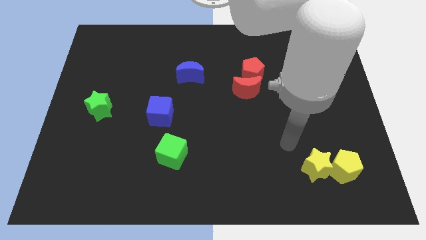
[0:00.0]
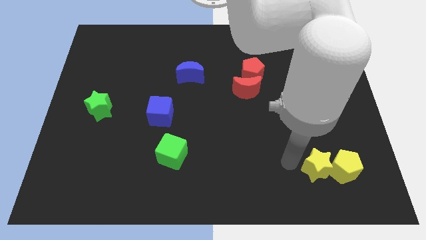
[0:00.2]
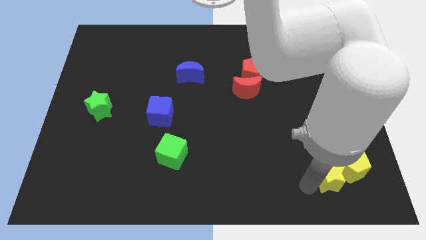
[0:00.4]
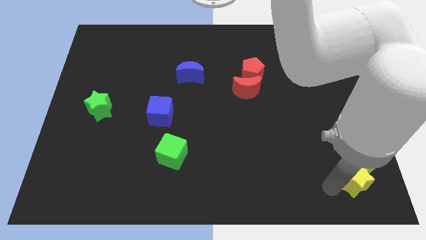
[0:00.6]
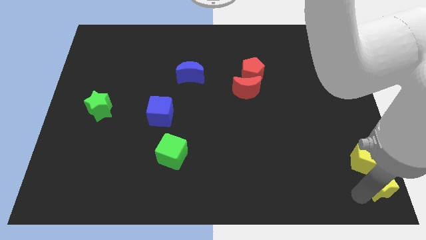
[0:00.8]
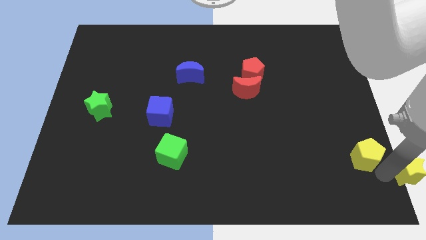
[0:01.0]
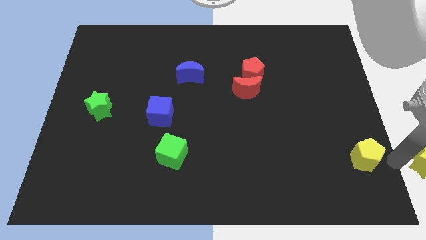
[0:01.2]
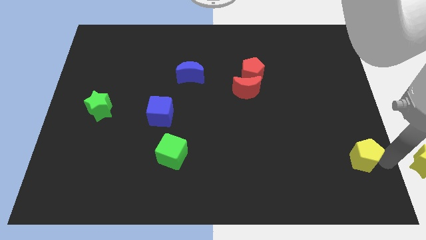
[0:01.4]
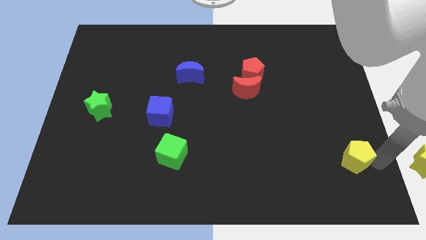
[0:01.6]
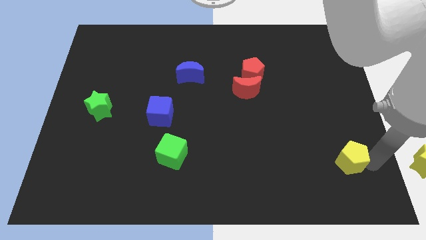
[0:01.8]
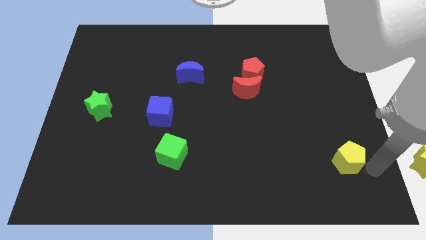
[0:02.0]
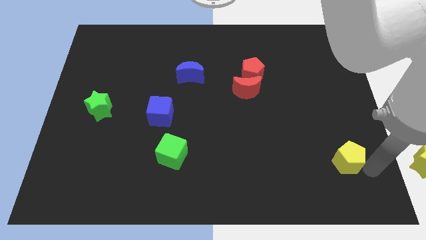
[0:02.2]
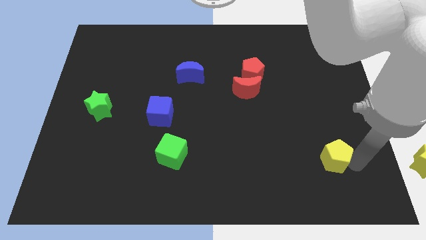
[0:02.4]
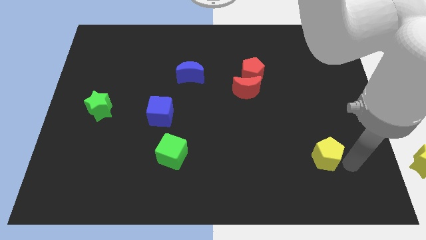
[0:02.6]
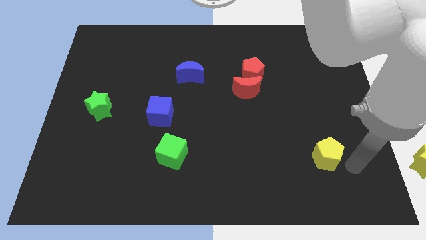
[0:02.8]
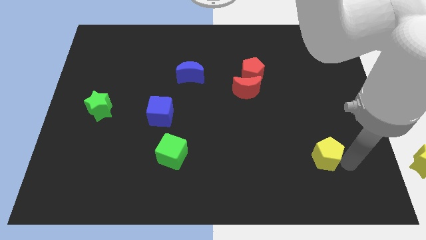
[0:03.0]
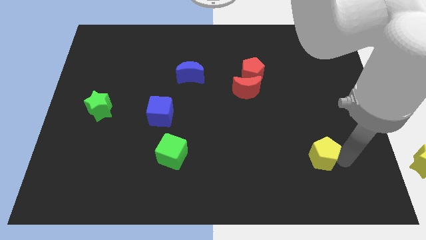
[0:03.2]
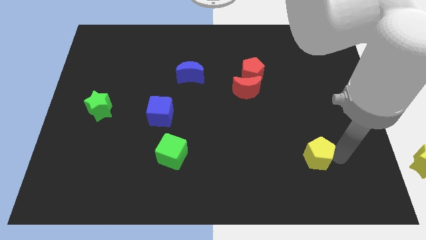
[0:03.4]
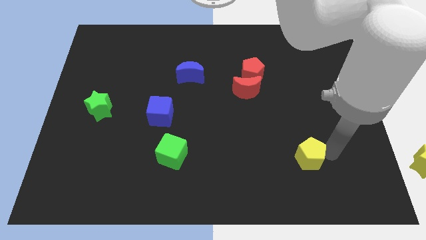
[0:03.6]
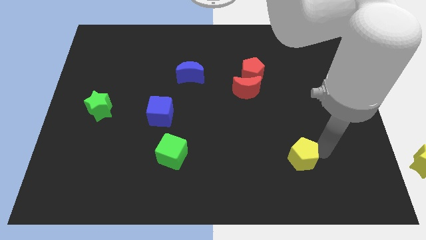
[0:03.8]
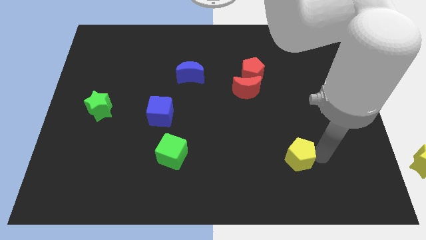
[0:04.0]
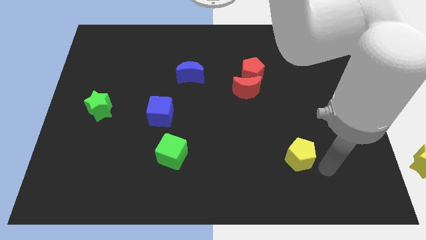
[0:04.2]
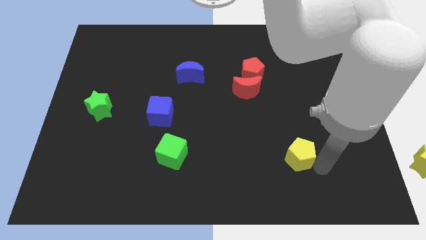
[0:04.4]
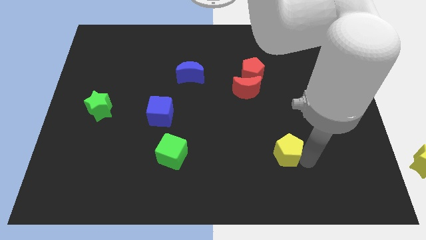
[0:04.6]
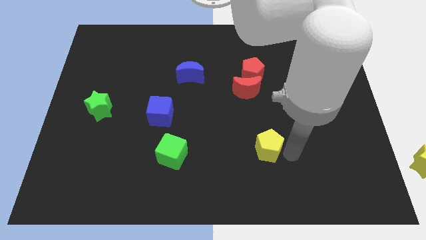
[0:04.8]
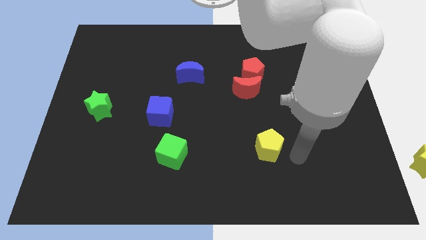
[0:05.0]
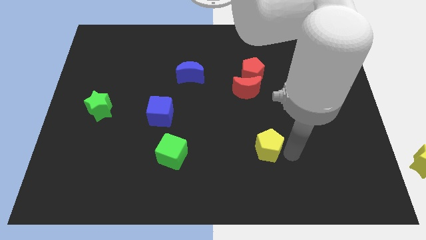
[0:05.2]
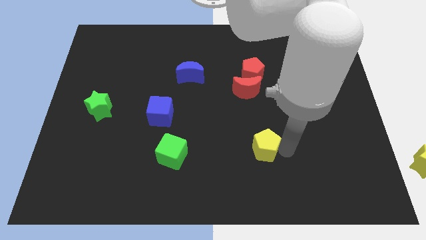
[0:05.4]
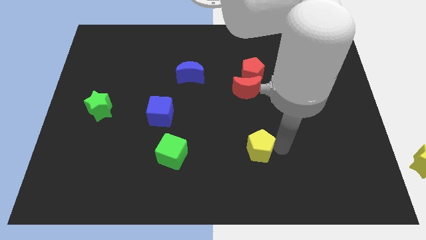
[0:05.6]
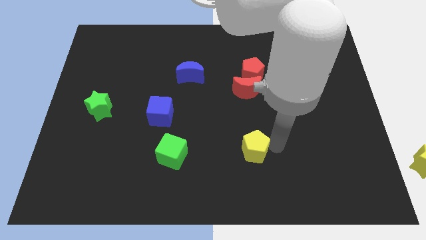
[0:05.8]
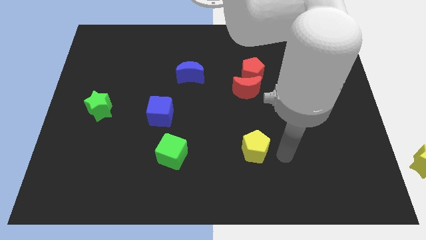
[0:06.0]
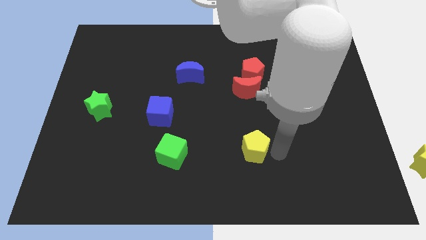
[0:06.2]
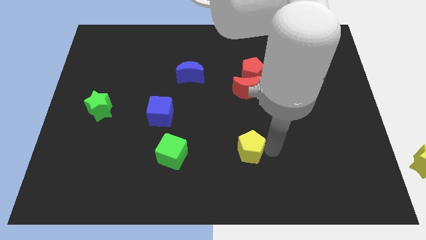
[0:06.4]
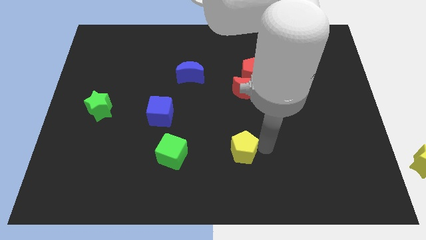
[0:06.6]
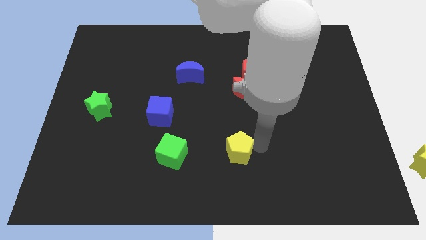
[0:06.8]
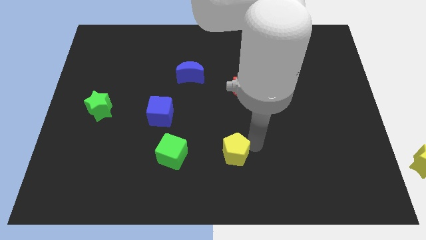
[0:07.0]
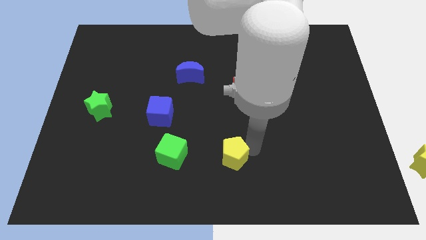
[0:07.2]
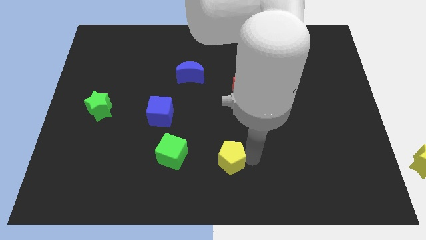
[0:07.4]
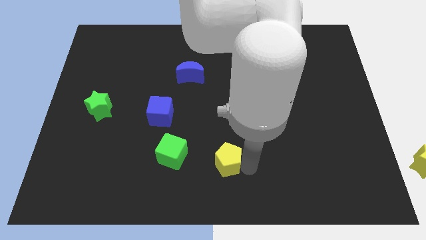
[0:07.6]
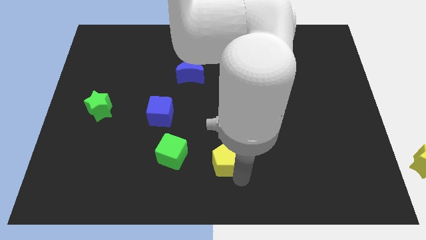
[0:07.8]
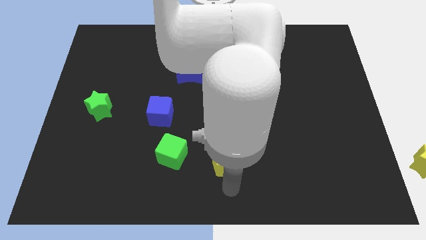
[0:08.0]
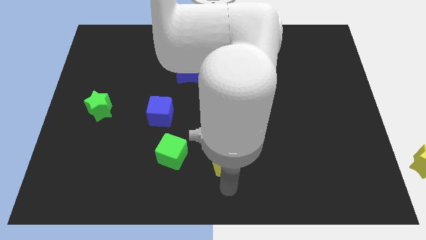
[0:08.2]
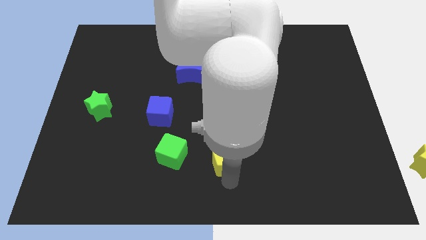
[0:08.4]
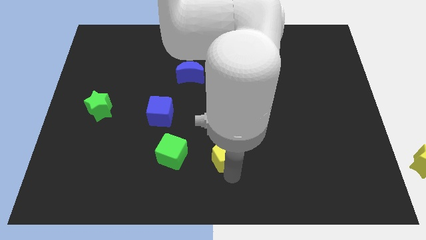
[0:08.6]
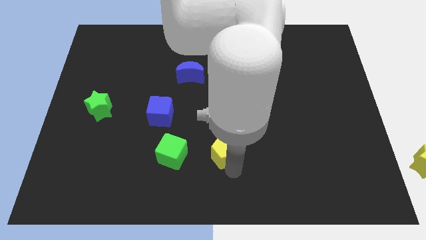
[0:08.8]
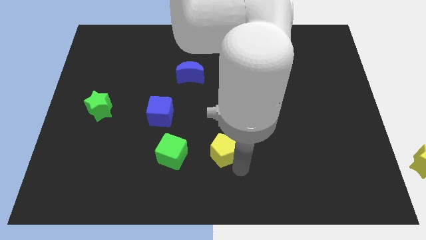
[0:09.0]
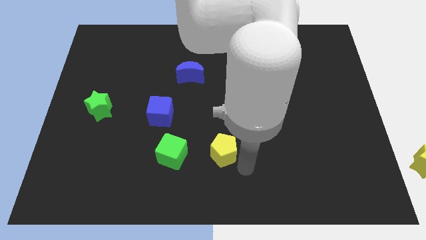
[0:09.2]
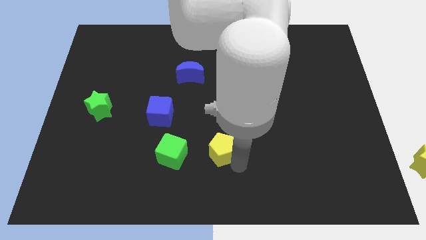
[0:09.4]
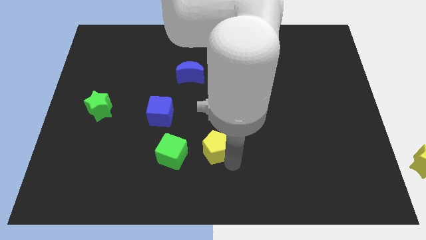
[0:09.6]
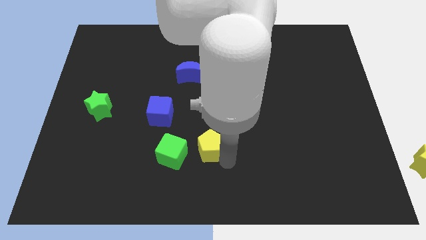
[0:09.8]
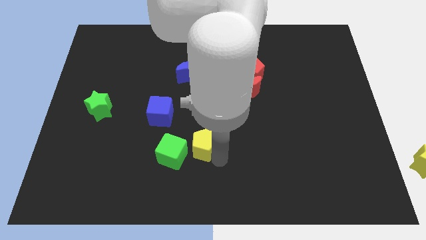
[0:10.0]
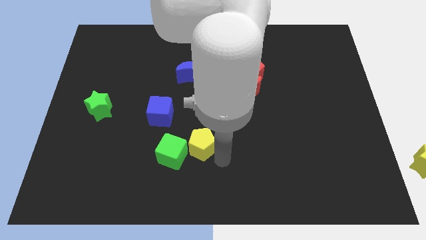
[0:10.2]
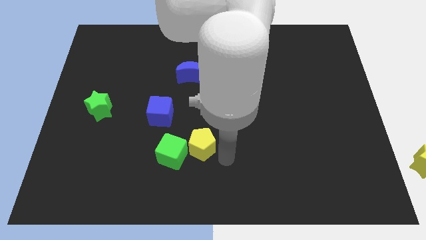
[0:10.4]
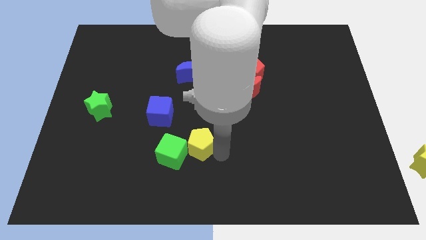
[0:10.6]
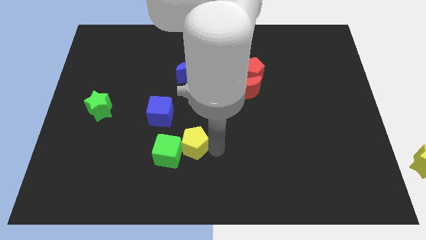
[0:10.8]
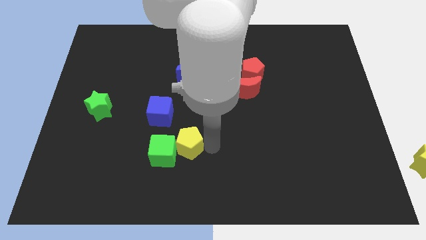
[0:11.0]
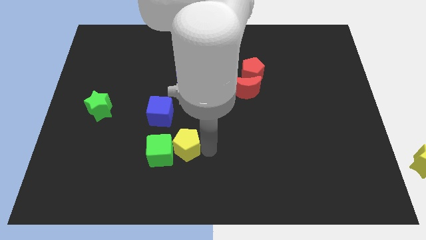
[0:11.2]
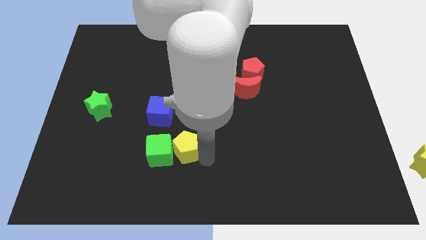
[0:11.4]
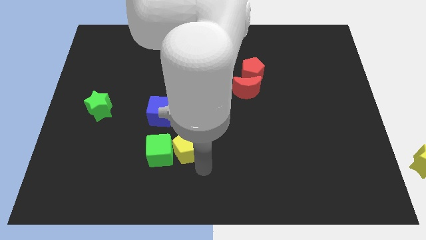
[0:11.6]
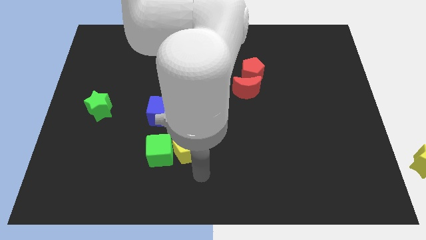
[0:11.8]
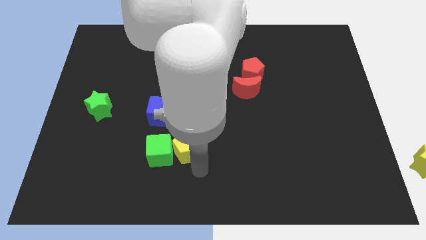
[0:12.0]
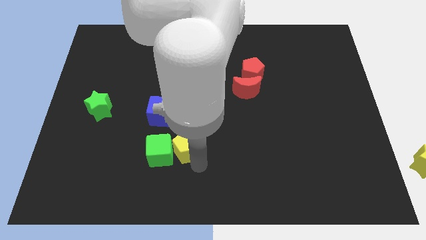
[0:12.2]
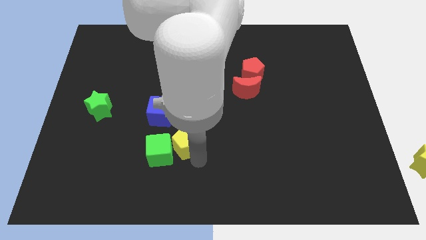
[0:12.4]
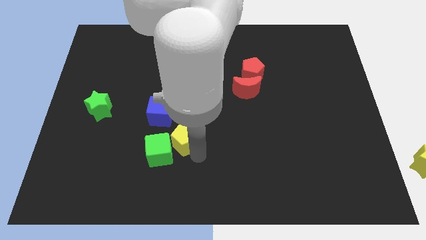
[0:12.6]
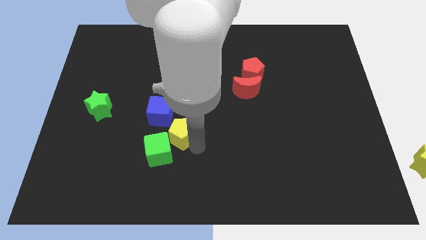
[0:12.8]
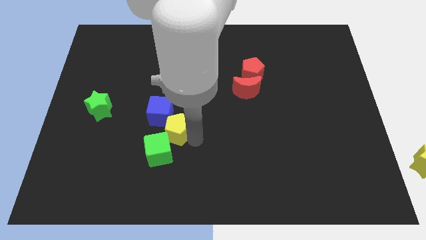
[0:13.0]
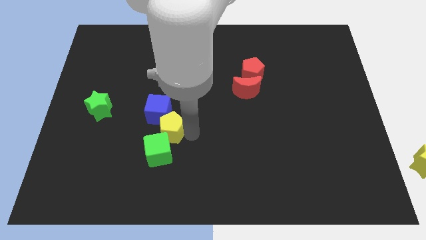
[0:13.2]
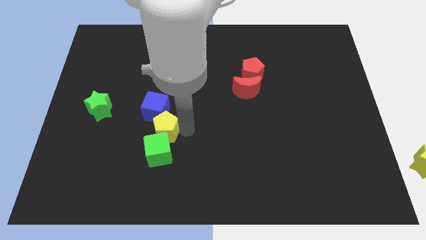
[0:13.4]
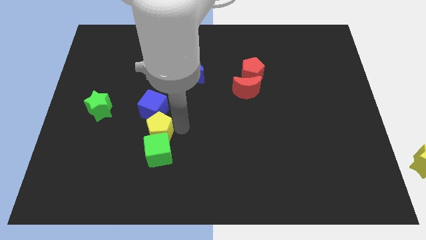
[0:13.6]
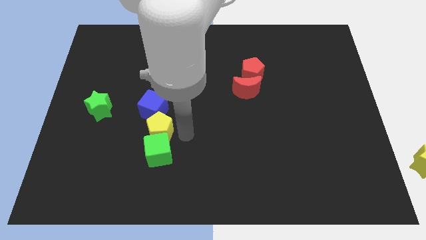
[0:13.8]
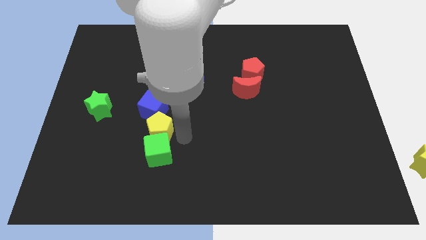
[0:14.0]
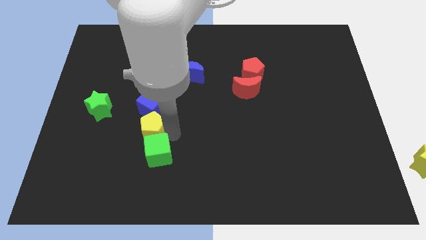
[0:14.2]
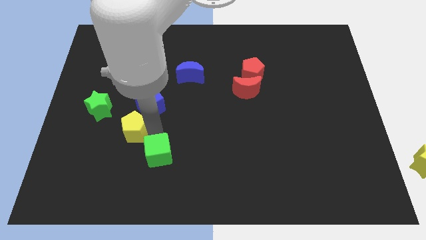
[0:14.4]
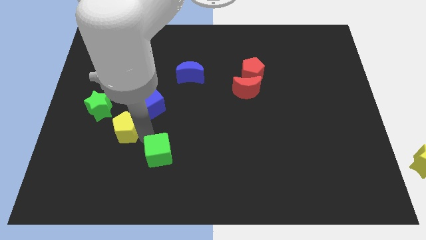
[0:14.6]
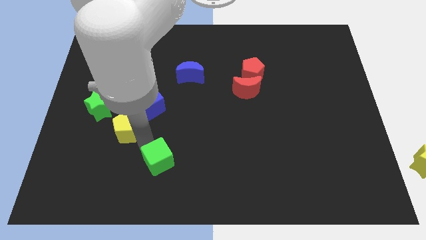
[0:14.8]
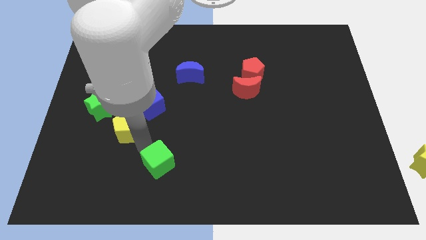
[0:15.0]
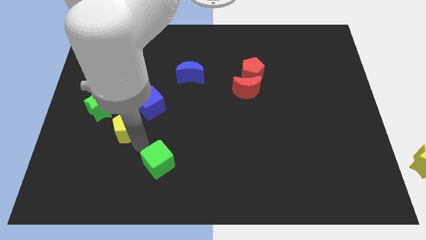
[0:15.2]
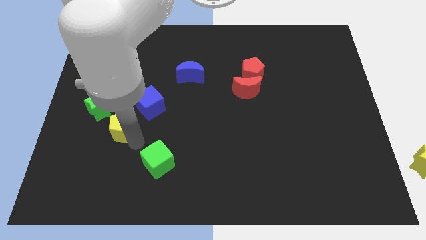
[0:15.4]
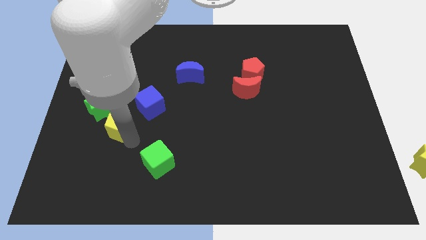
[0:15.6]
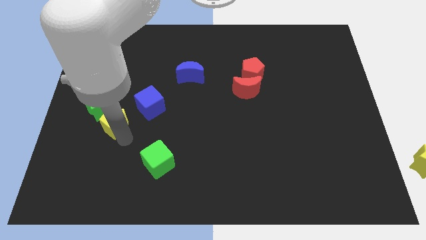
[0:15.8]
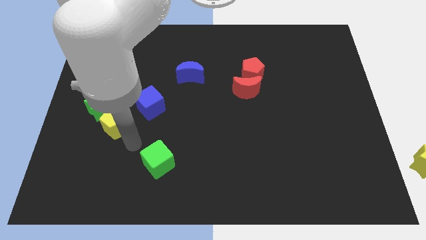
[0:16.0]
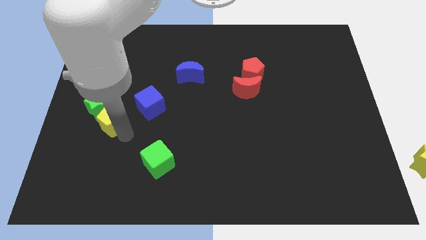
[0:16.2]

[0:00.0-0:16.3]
put the yellow pentagon close to the green star
